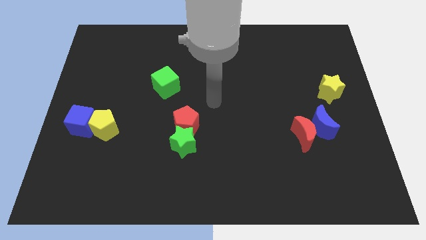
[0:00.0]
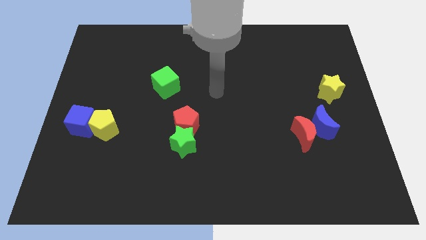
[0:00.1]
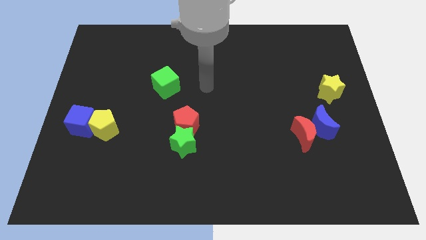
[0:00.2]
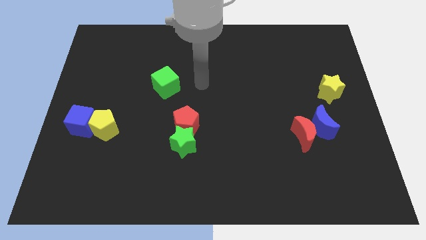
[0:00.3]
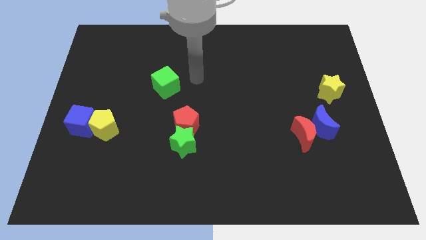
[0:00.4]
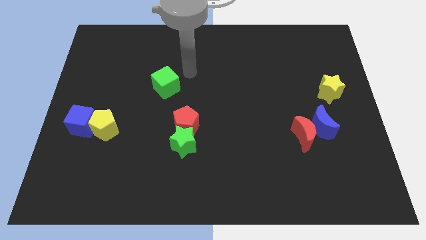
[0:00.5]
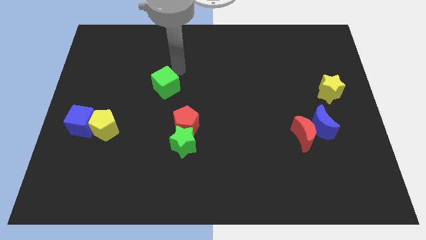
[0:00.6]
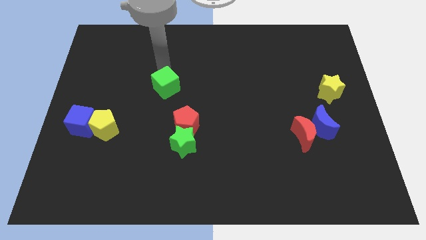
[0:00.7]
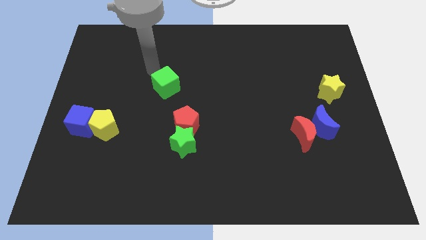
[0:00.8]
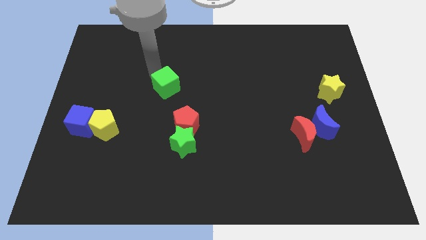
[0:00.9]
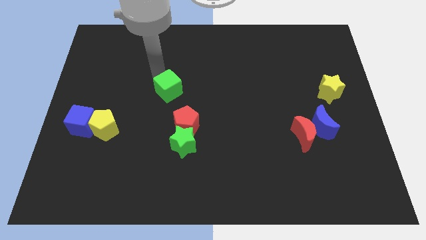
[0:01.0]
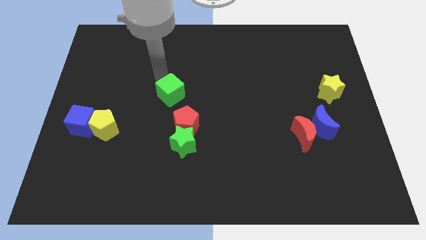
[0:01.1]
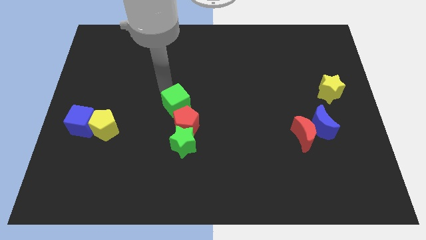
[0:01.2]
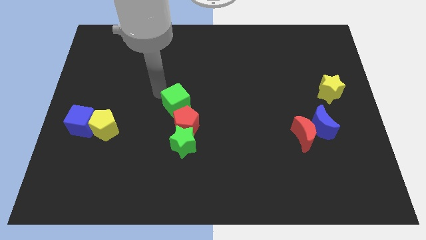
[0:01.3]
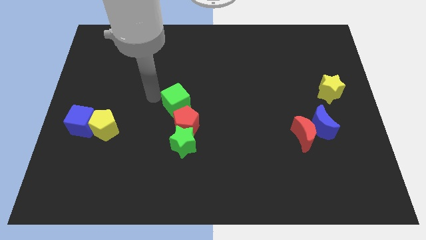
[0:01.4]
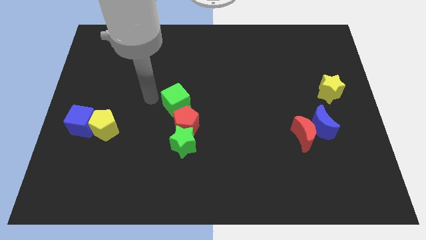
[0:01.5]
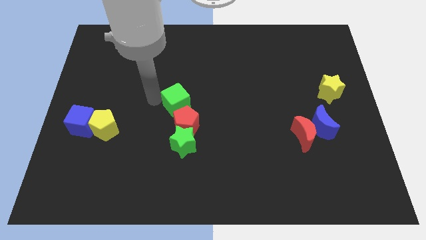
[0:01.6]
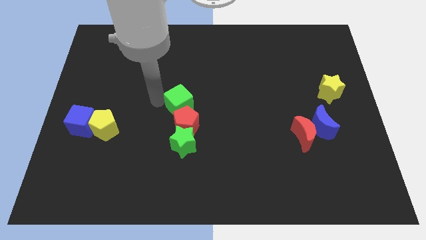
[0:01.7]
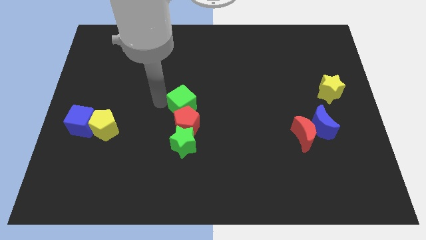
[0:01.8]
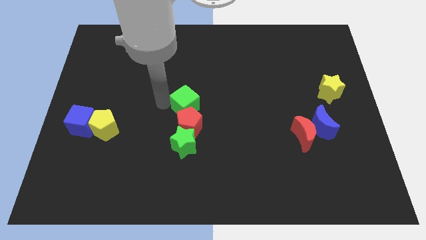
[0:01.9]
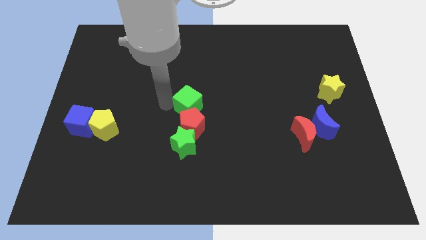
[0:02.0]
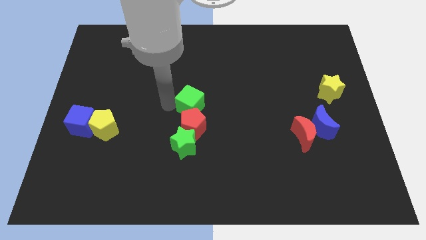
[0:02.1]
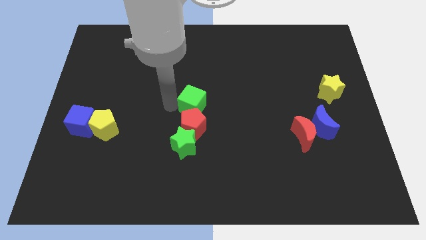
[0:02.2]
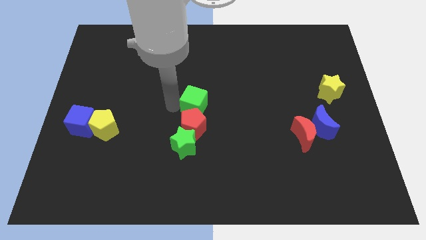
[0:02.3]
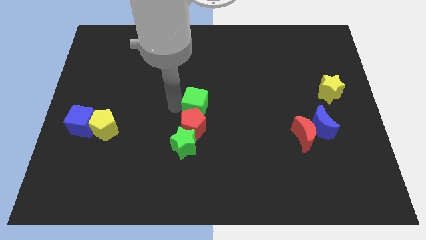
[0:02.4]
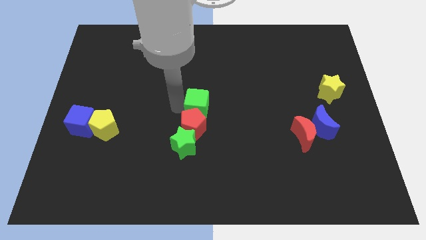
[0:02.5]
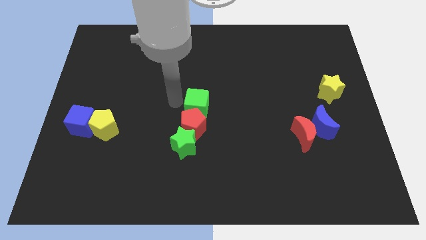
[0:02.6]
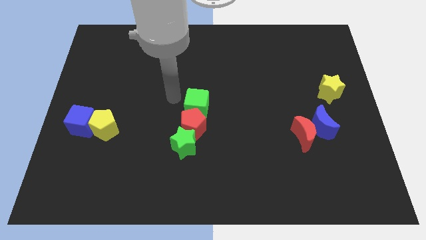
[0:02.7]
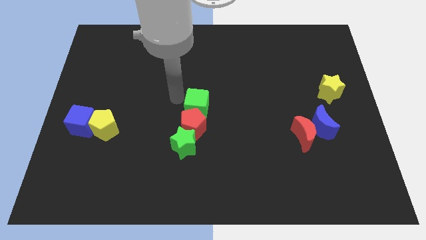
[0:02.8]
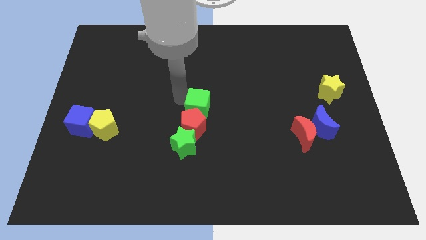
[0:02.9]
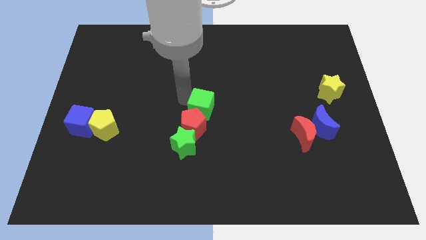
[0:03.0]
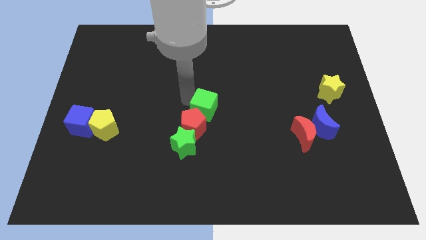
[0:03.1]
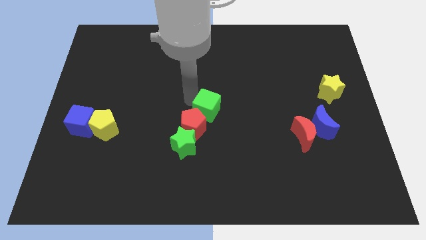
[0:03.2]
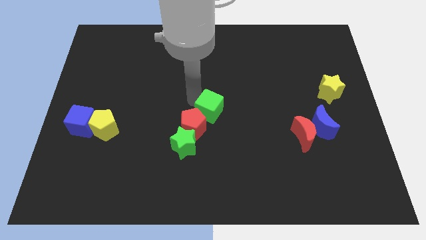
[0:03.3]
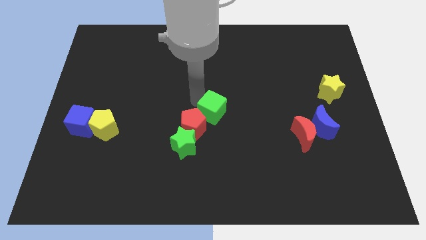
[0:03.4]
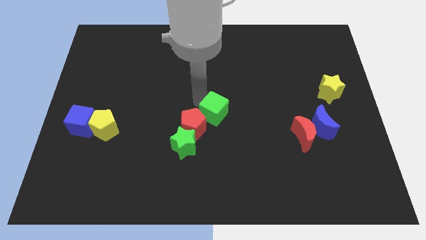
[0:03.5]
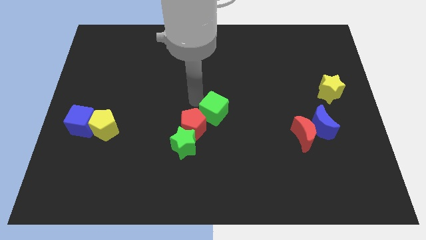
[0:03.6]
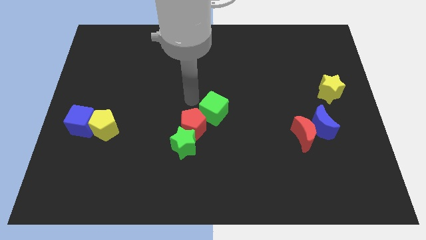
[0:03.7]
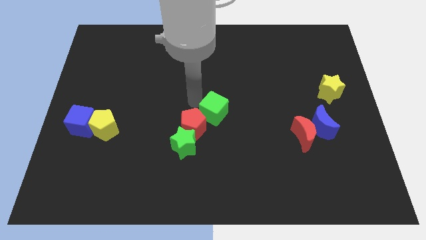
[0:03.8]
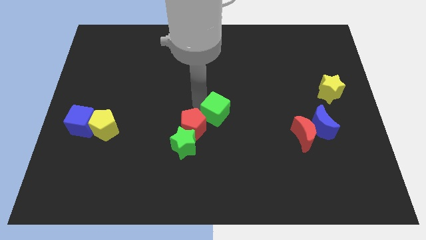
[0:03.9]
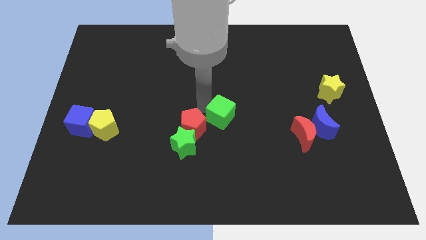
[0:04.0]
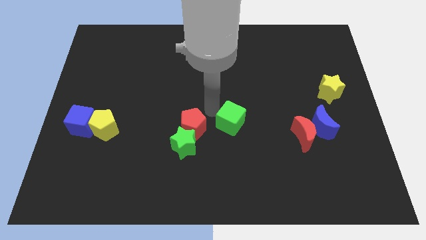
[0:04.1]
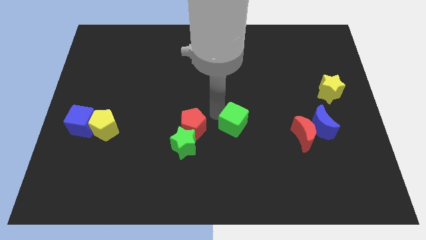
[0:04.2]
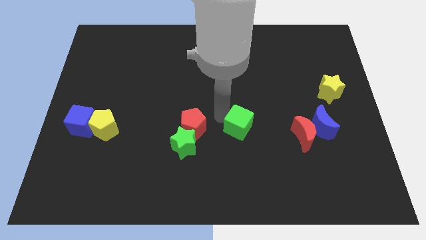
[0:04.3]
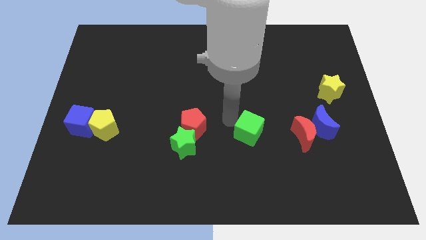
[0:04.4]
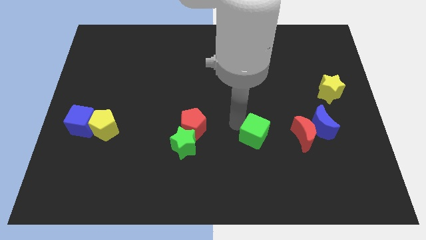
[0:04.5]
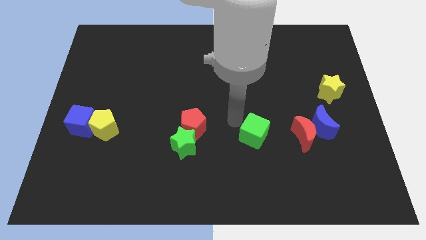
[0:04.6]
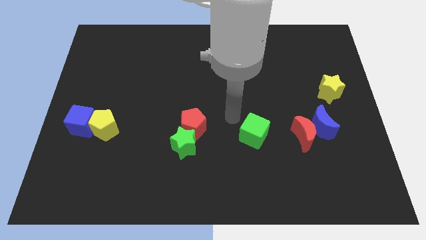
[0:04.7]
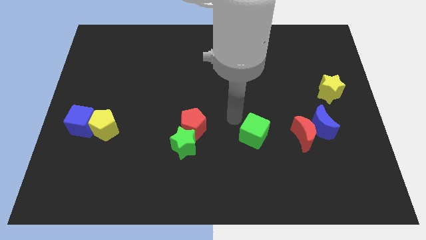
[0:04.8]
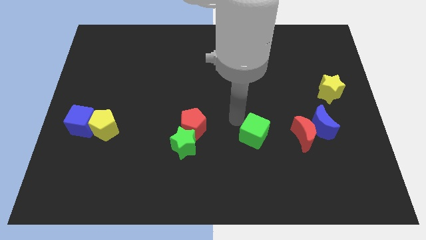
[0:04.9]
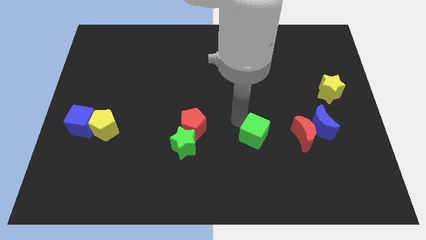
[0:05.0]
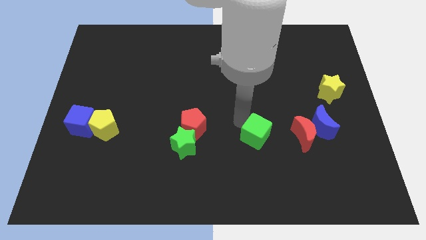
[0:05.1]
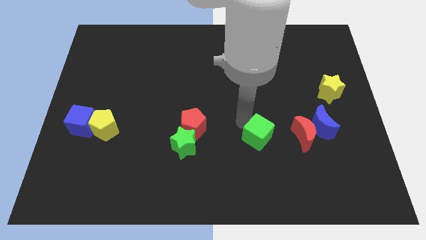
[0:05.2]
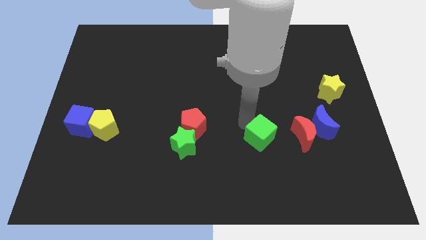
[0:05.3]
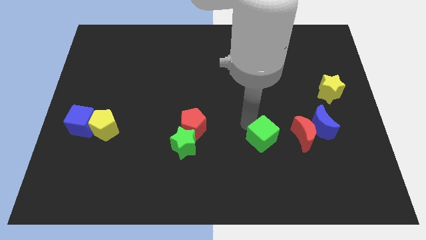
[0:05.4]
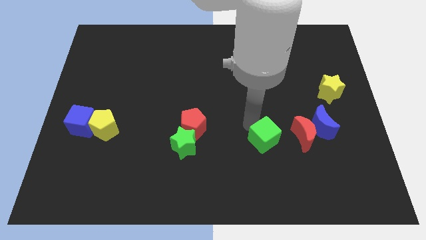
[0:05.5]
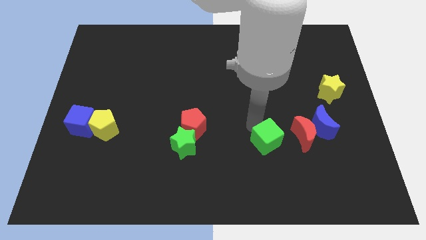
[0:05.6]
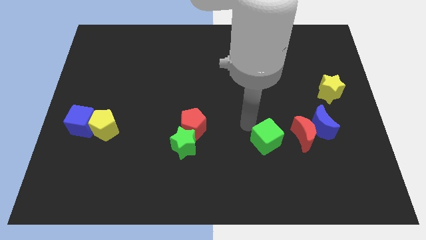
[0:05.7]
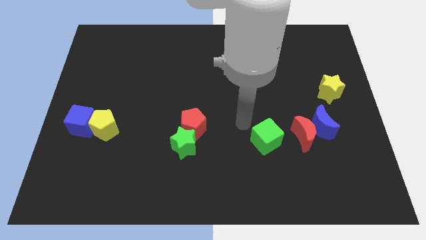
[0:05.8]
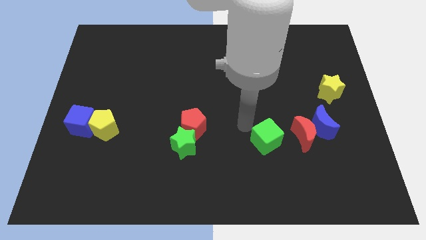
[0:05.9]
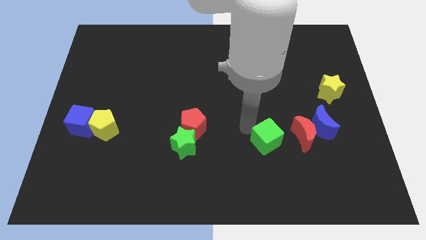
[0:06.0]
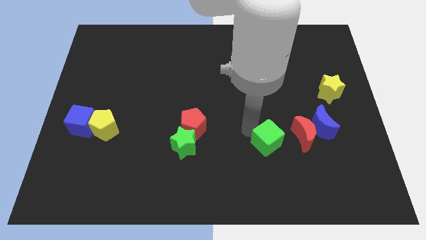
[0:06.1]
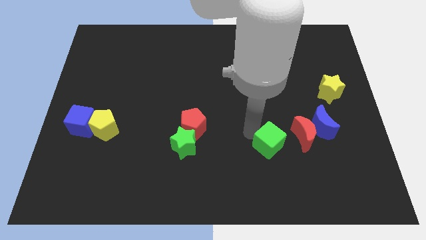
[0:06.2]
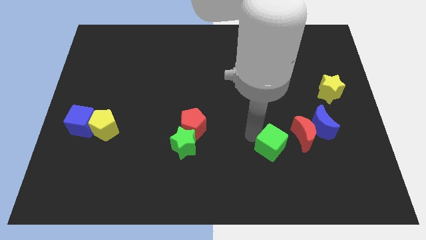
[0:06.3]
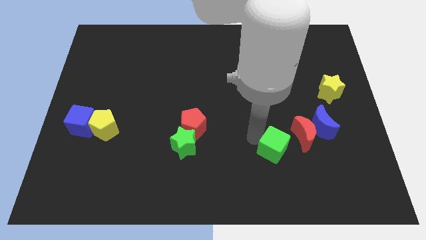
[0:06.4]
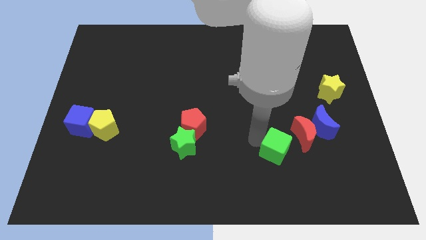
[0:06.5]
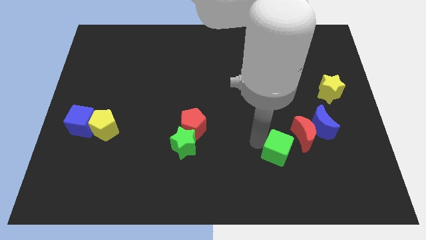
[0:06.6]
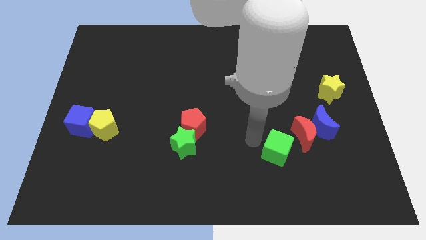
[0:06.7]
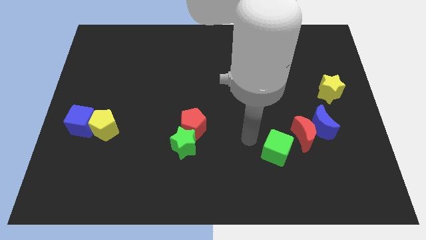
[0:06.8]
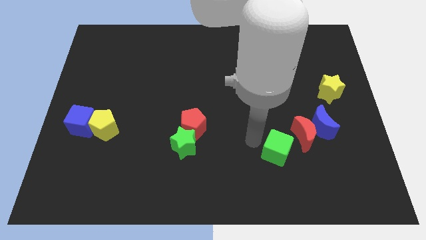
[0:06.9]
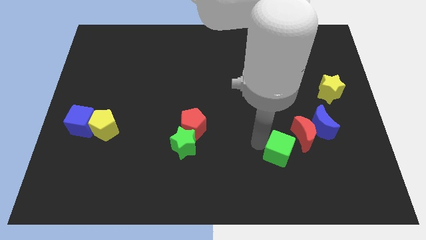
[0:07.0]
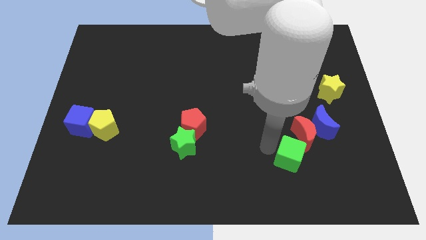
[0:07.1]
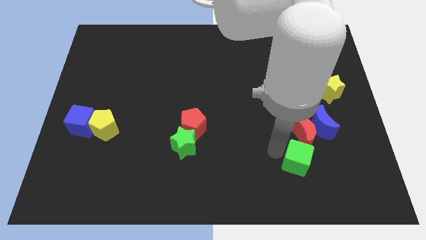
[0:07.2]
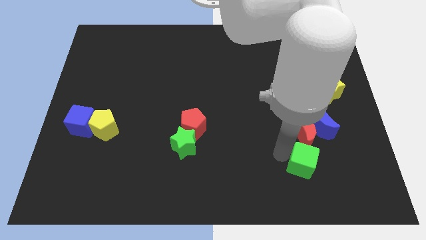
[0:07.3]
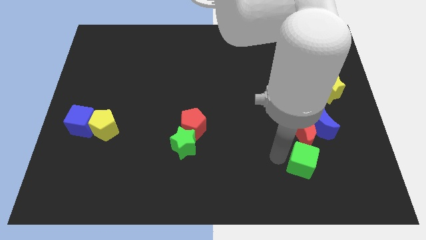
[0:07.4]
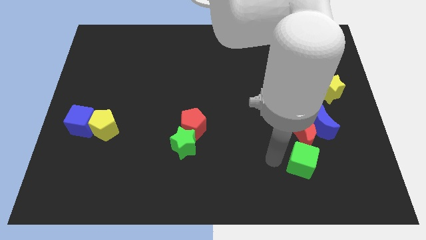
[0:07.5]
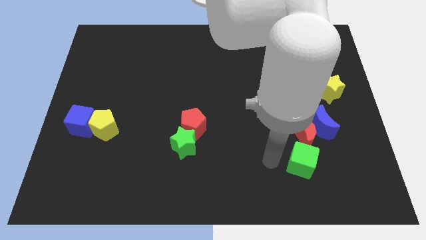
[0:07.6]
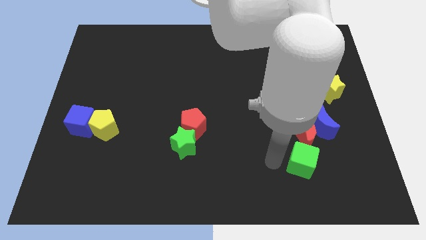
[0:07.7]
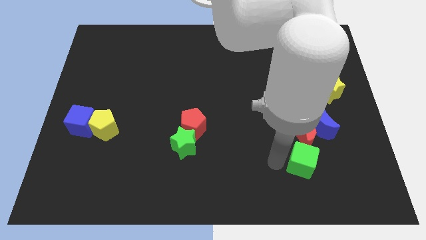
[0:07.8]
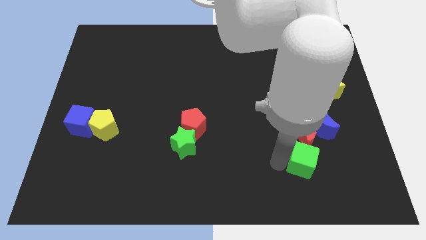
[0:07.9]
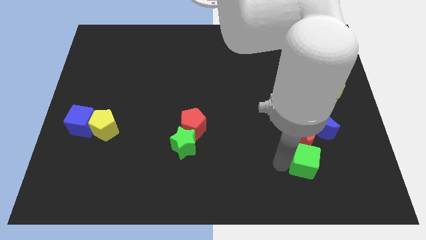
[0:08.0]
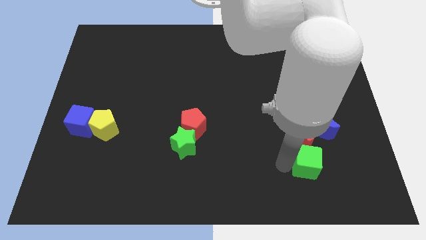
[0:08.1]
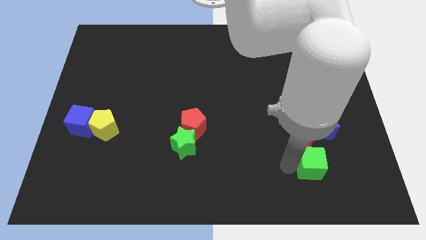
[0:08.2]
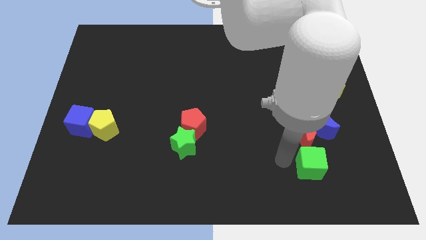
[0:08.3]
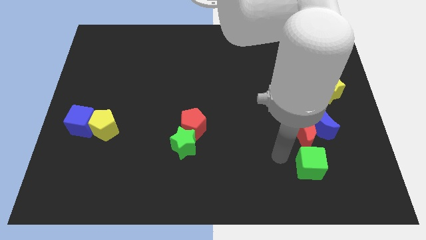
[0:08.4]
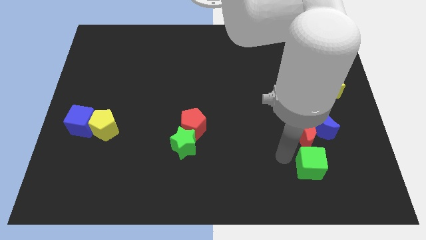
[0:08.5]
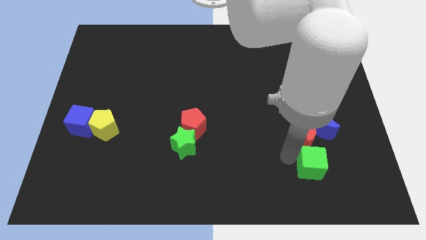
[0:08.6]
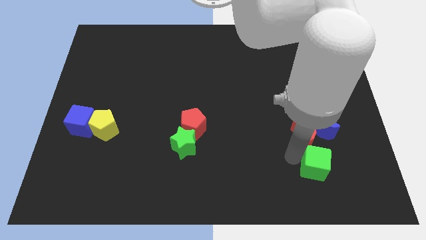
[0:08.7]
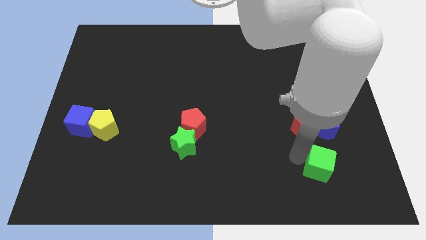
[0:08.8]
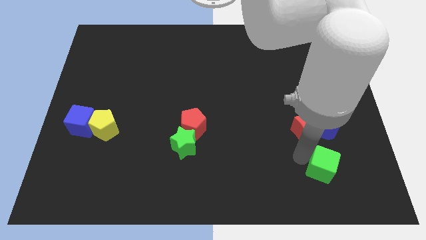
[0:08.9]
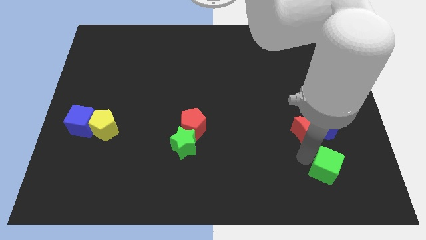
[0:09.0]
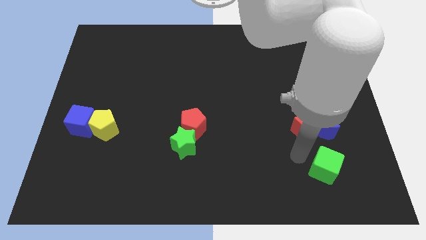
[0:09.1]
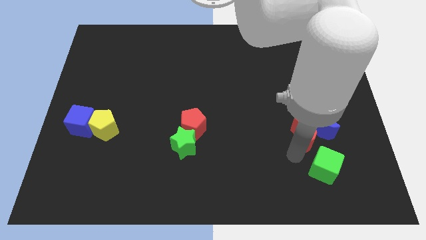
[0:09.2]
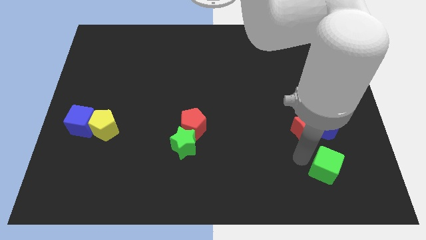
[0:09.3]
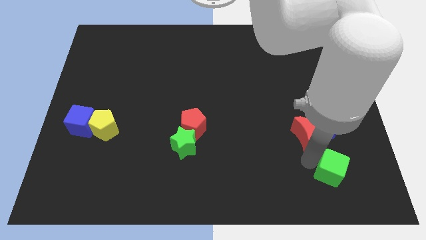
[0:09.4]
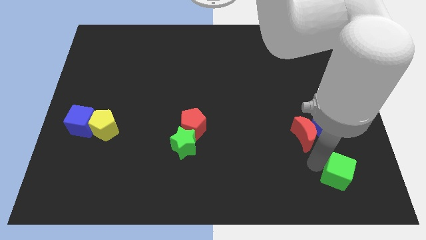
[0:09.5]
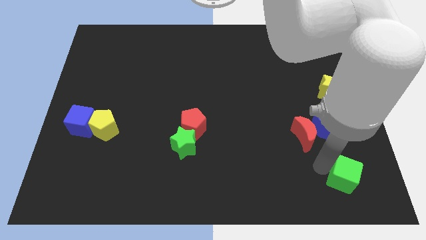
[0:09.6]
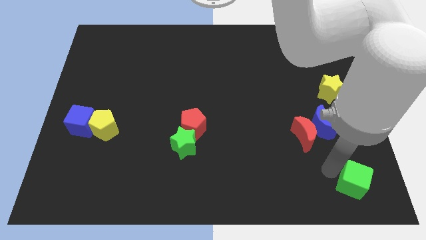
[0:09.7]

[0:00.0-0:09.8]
move the green cube to the bottom right of the board
